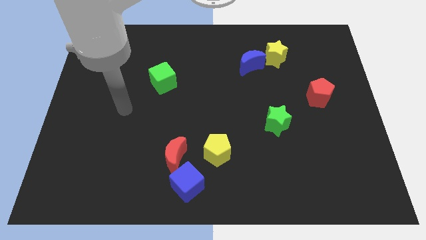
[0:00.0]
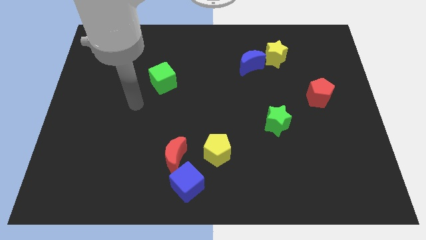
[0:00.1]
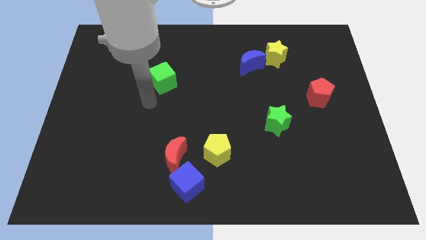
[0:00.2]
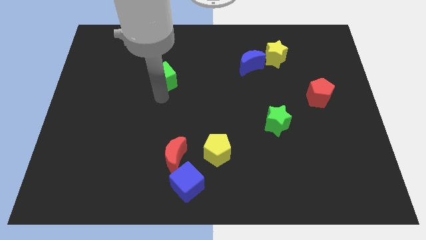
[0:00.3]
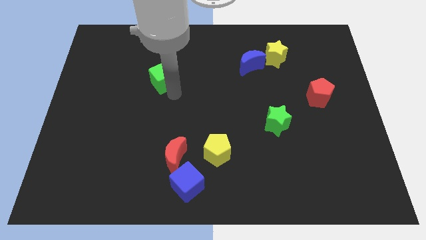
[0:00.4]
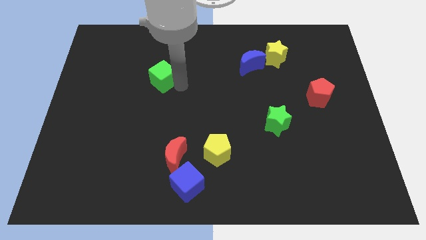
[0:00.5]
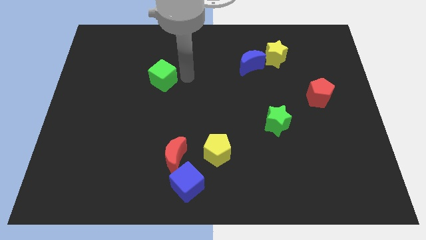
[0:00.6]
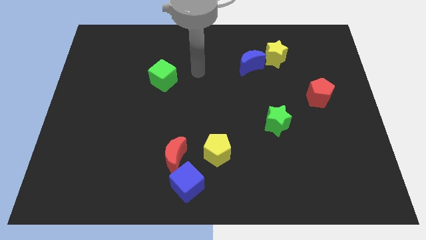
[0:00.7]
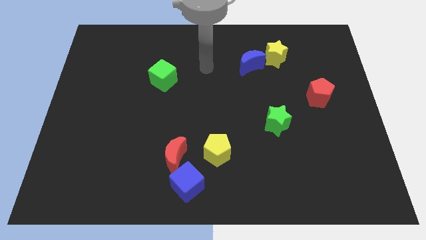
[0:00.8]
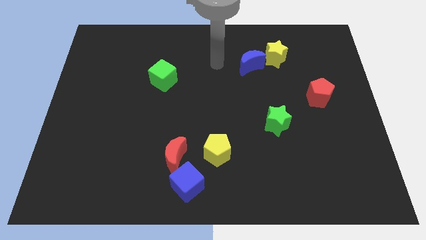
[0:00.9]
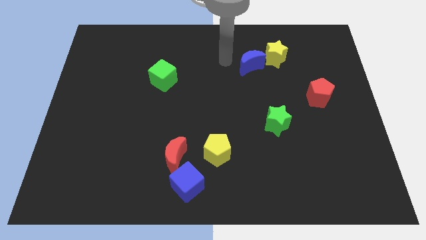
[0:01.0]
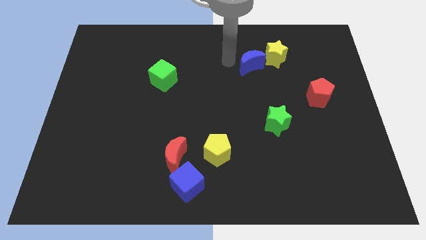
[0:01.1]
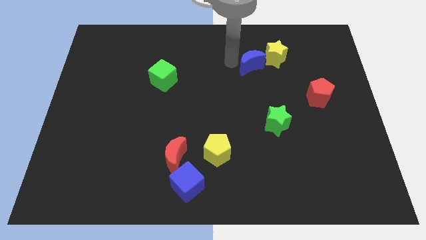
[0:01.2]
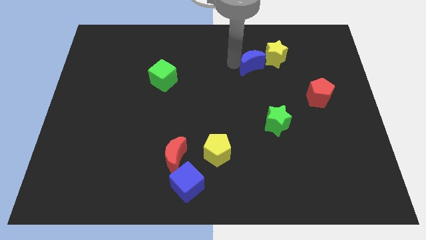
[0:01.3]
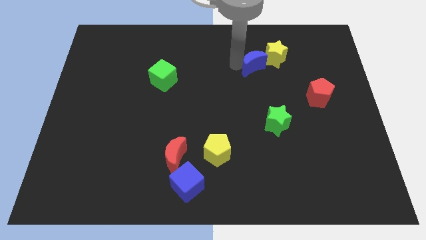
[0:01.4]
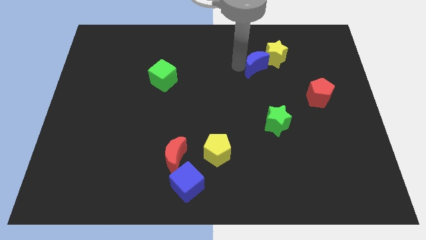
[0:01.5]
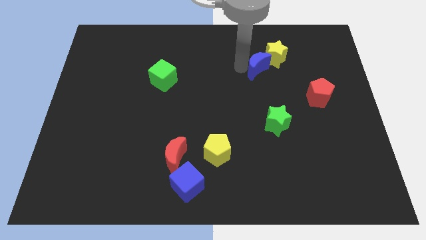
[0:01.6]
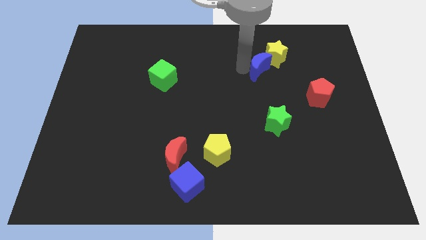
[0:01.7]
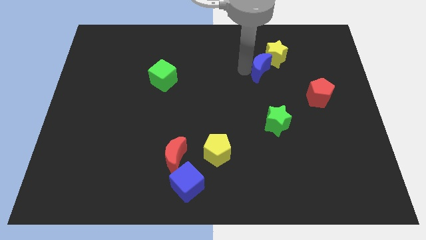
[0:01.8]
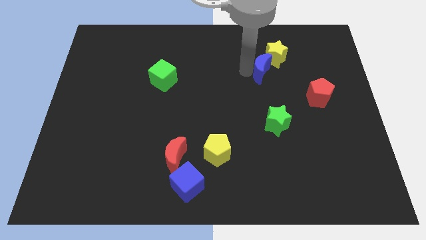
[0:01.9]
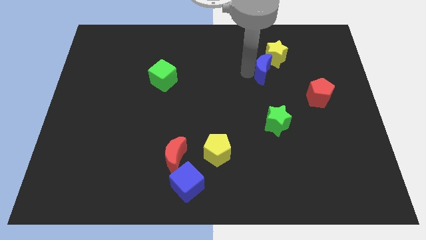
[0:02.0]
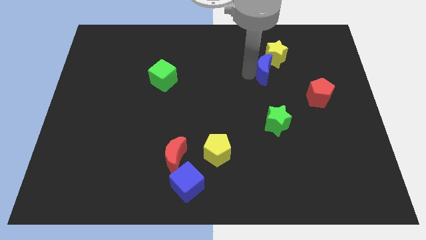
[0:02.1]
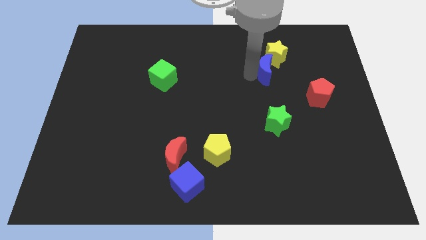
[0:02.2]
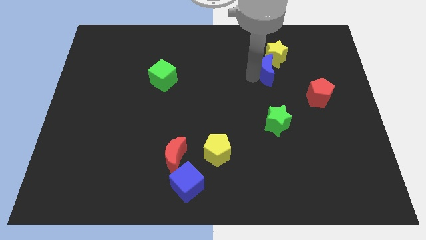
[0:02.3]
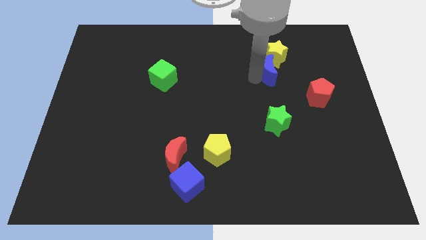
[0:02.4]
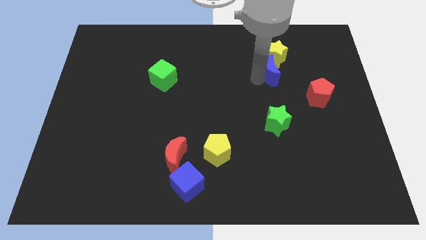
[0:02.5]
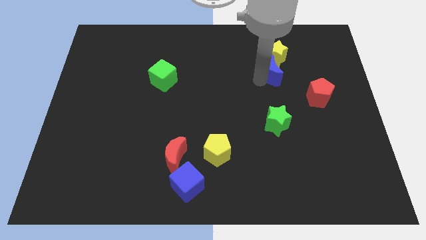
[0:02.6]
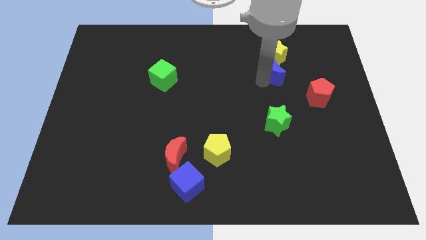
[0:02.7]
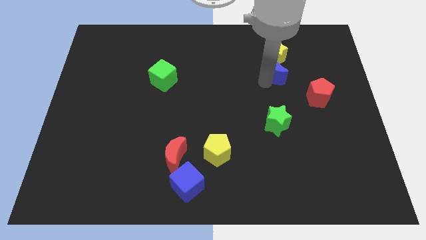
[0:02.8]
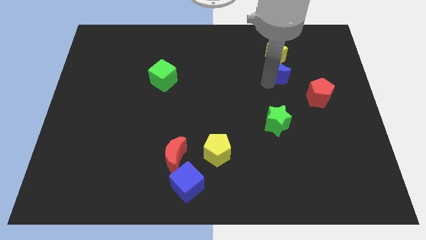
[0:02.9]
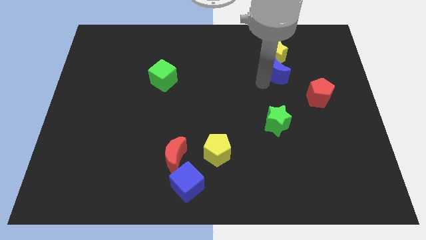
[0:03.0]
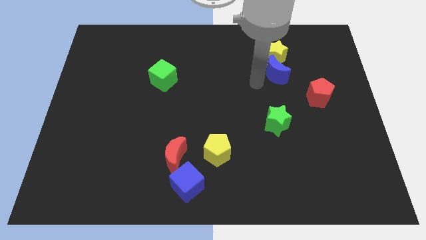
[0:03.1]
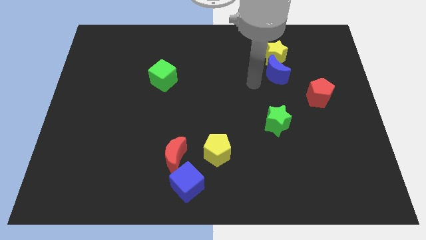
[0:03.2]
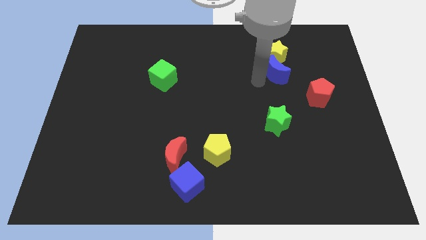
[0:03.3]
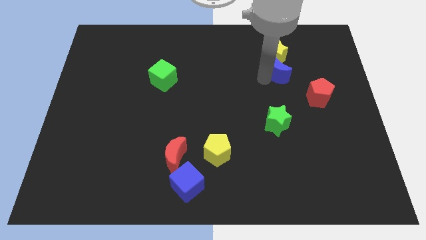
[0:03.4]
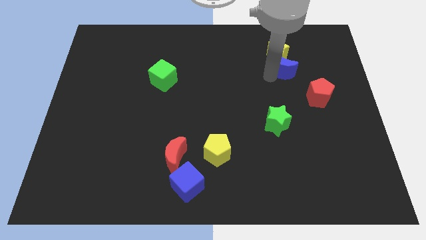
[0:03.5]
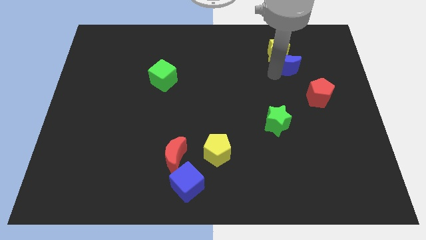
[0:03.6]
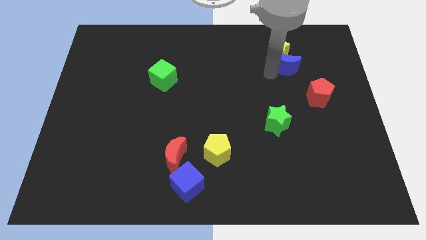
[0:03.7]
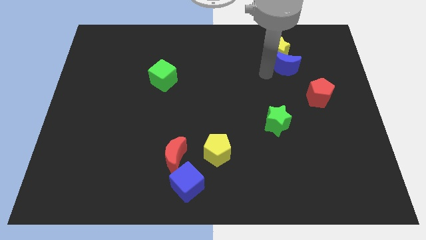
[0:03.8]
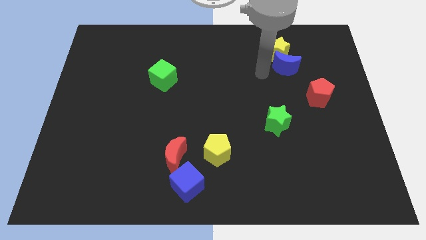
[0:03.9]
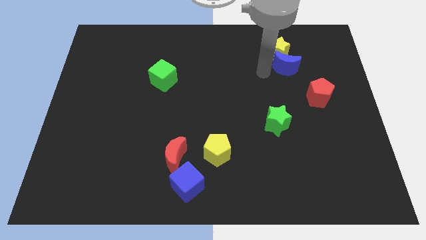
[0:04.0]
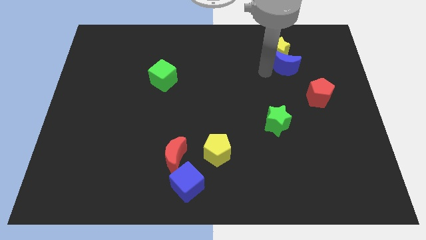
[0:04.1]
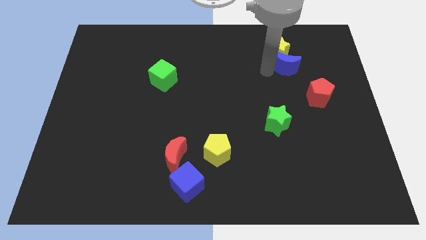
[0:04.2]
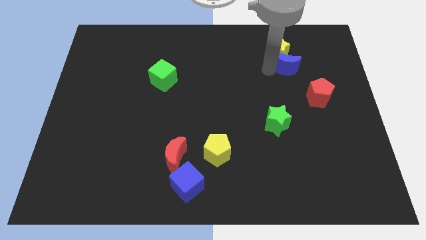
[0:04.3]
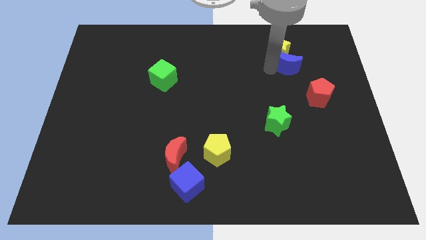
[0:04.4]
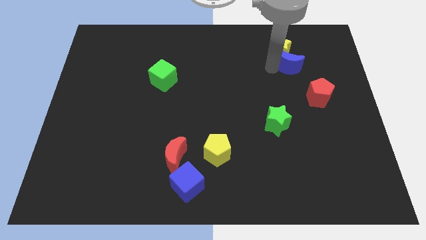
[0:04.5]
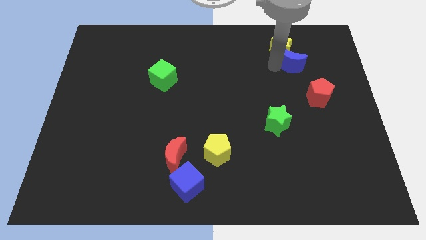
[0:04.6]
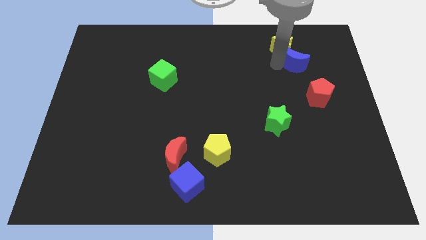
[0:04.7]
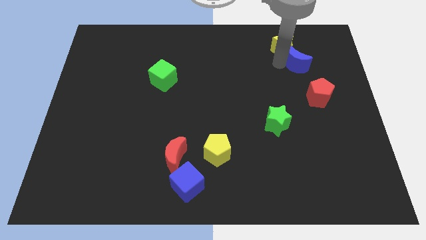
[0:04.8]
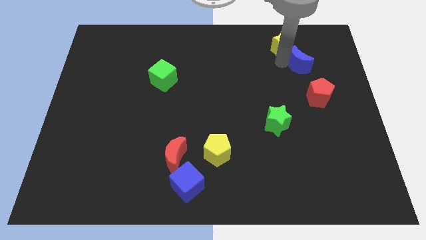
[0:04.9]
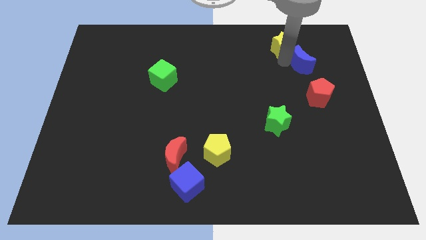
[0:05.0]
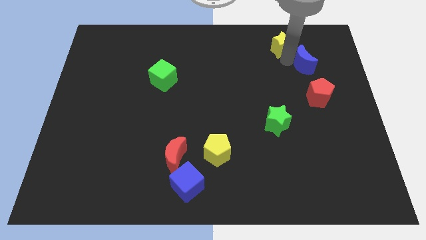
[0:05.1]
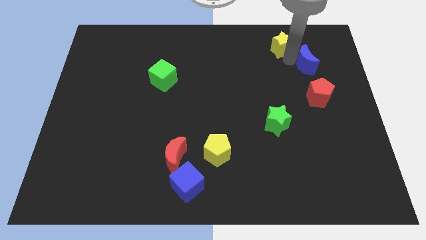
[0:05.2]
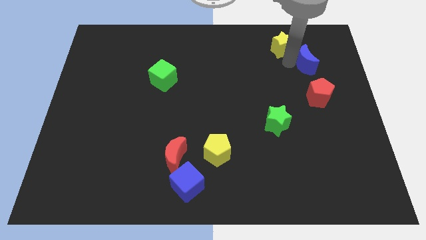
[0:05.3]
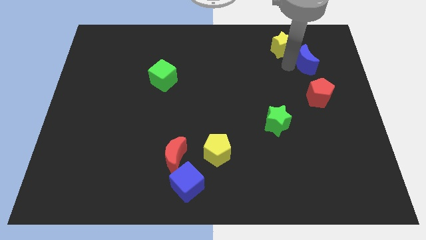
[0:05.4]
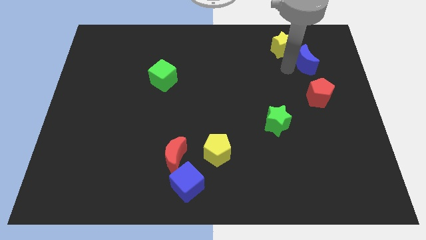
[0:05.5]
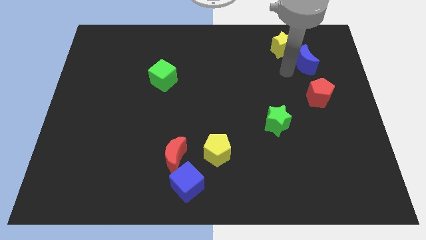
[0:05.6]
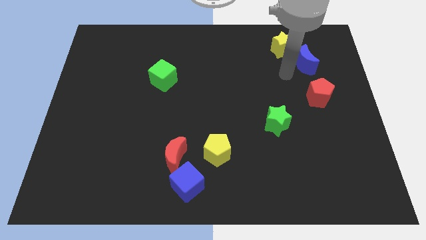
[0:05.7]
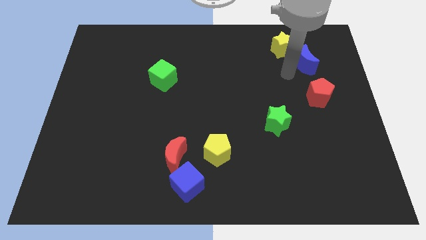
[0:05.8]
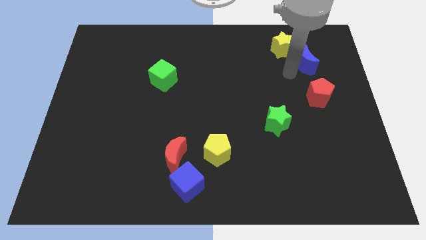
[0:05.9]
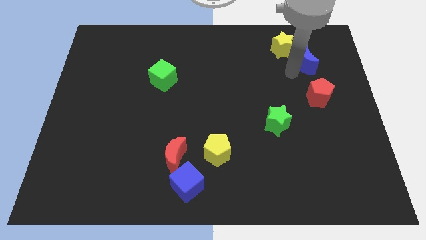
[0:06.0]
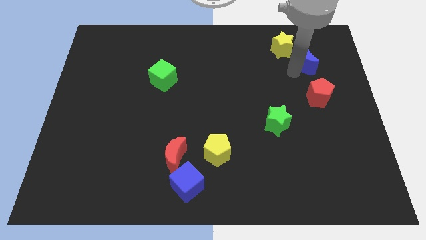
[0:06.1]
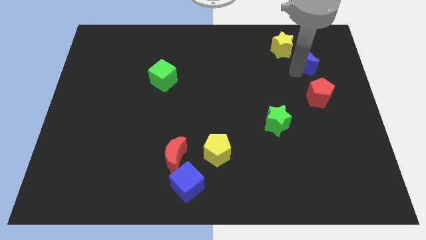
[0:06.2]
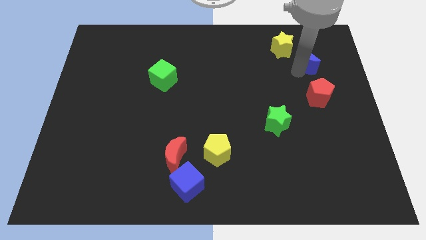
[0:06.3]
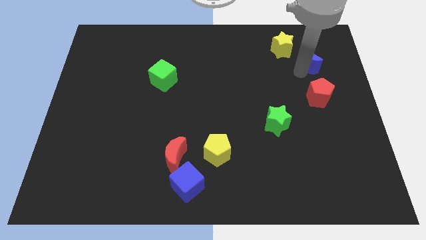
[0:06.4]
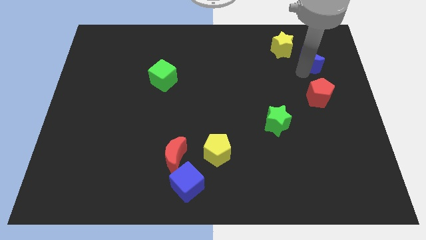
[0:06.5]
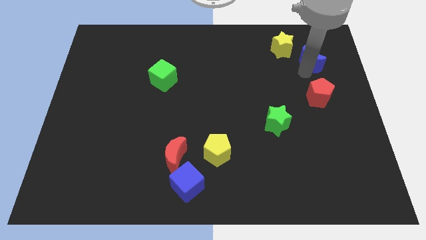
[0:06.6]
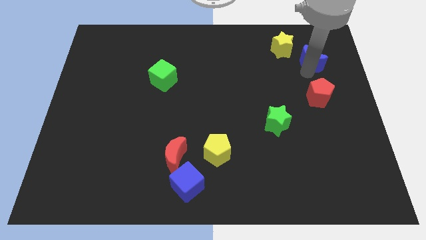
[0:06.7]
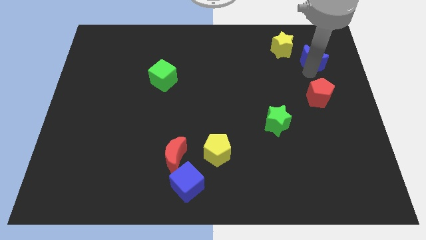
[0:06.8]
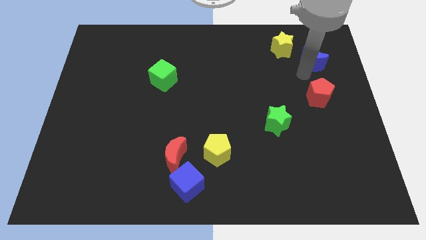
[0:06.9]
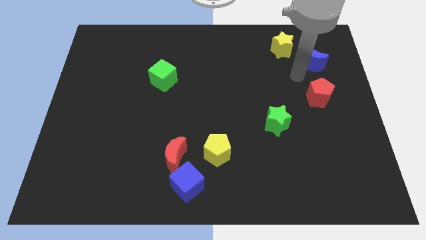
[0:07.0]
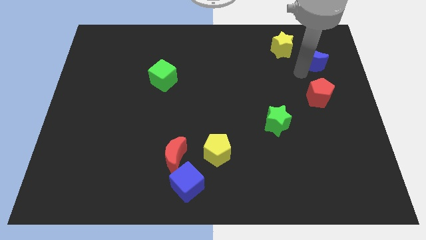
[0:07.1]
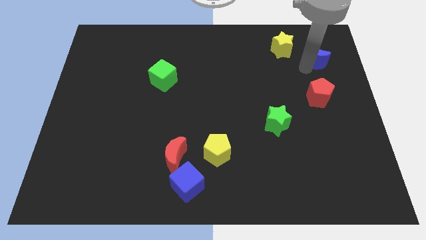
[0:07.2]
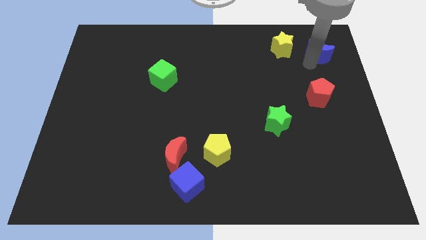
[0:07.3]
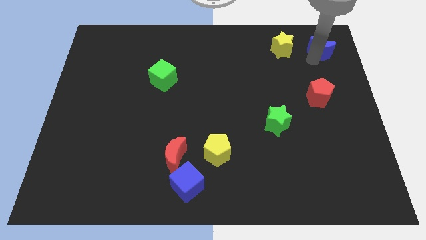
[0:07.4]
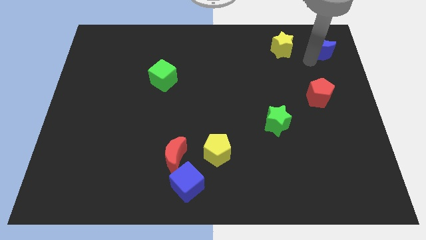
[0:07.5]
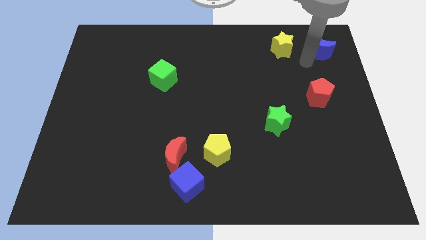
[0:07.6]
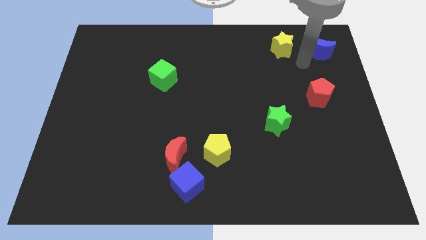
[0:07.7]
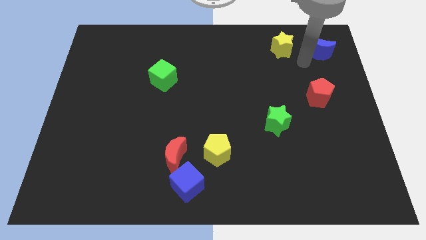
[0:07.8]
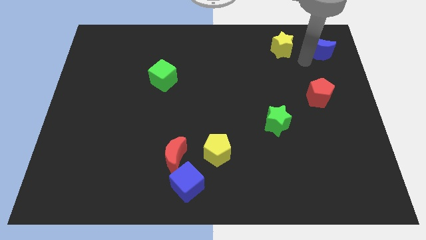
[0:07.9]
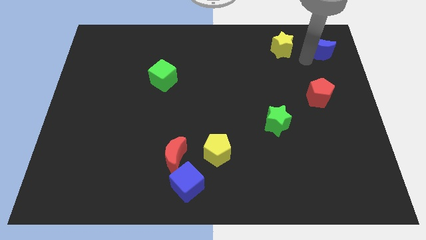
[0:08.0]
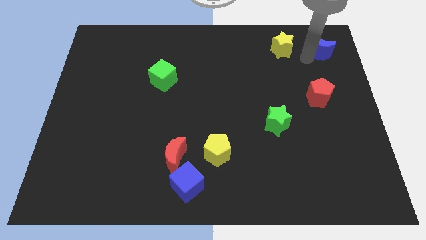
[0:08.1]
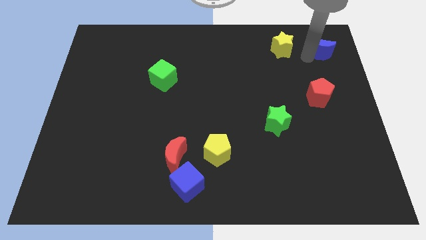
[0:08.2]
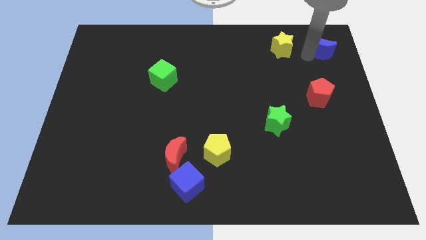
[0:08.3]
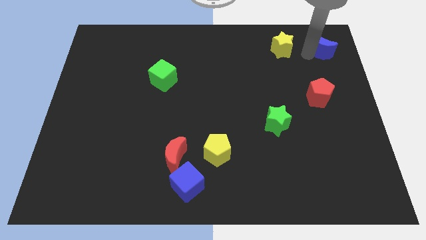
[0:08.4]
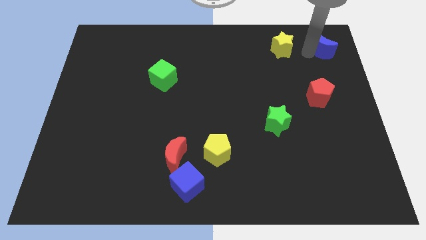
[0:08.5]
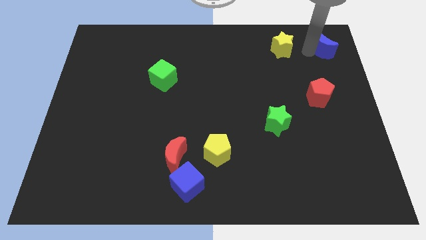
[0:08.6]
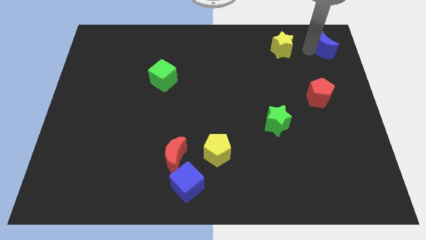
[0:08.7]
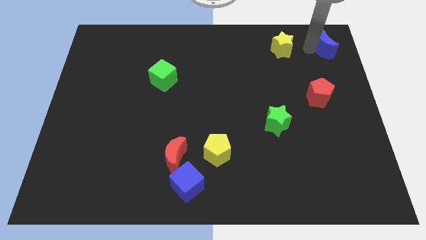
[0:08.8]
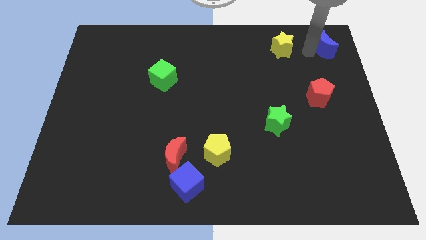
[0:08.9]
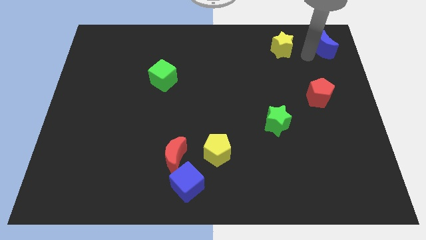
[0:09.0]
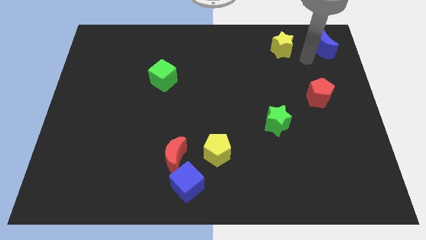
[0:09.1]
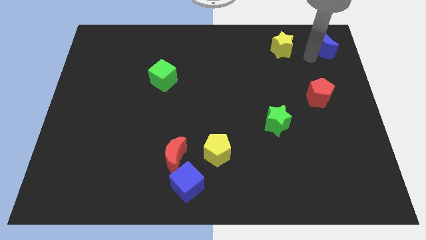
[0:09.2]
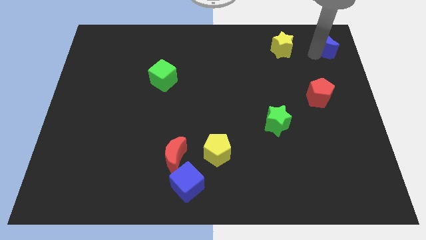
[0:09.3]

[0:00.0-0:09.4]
put the blue moon to the top right of the board
